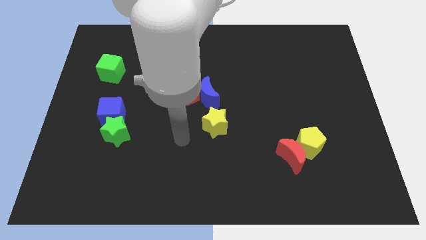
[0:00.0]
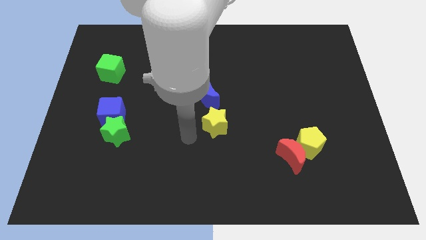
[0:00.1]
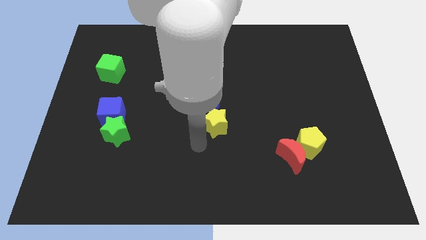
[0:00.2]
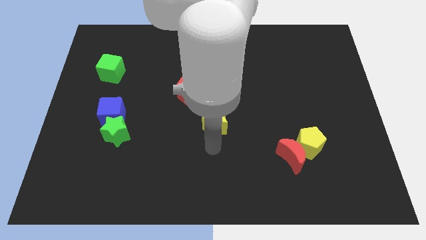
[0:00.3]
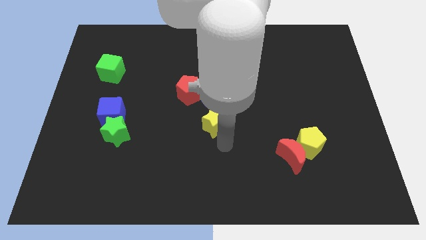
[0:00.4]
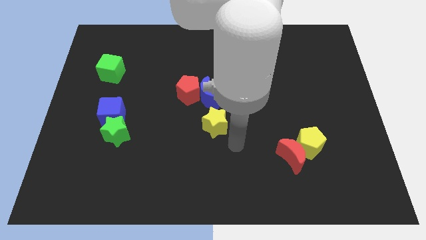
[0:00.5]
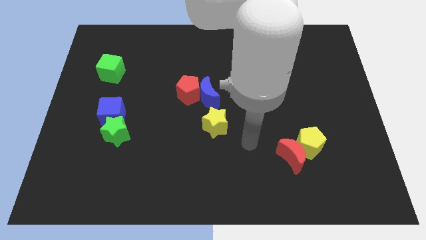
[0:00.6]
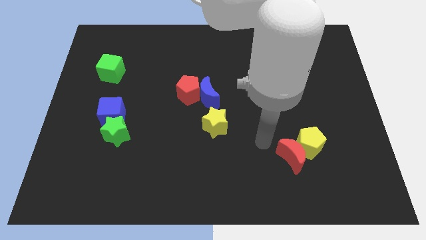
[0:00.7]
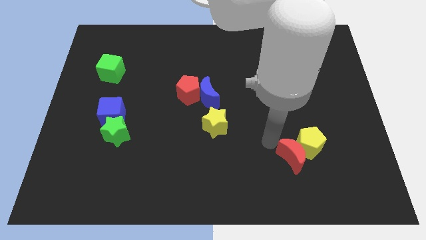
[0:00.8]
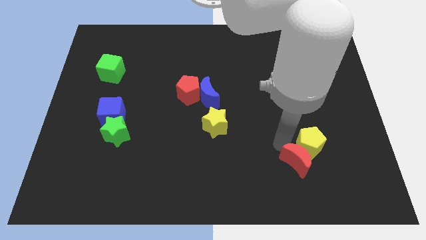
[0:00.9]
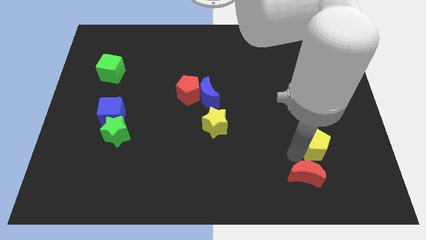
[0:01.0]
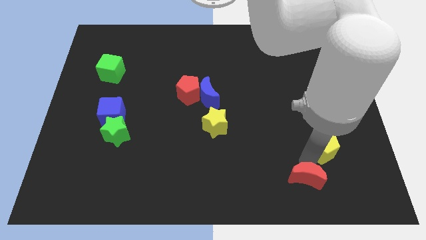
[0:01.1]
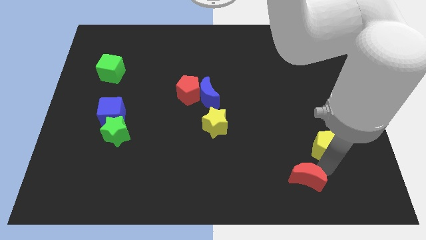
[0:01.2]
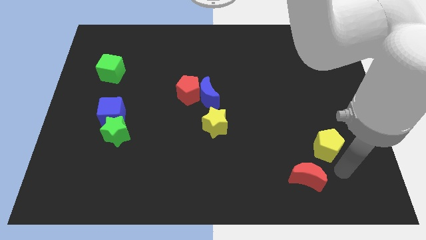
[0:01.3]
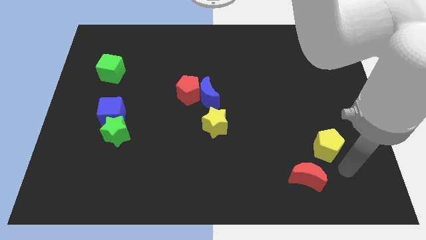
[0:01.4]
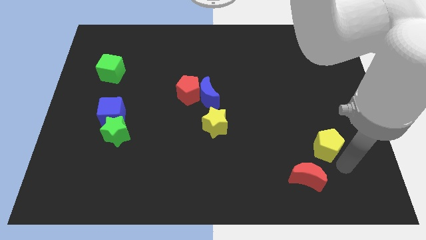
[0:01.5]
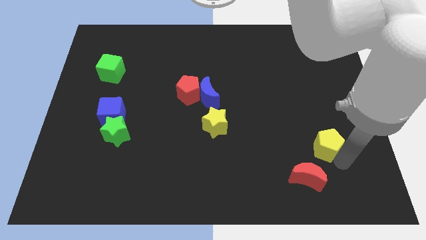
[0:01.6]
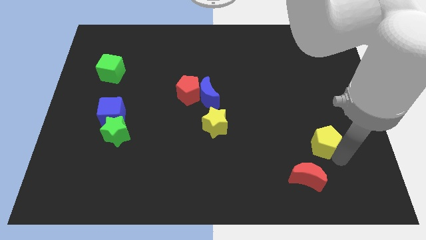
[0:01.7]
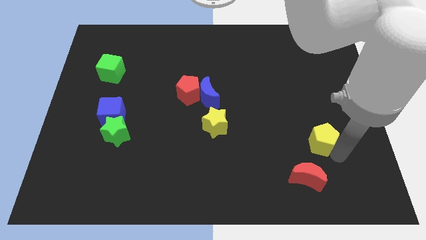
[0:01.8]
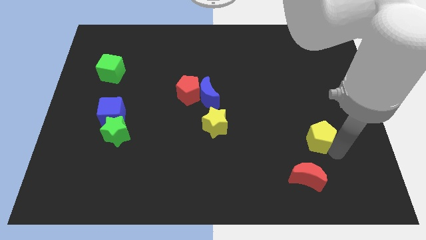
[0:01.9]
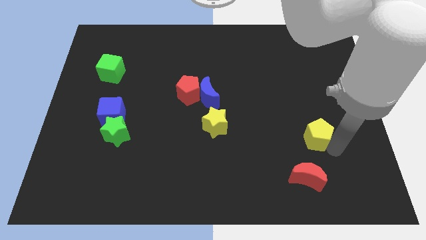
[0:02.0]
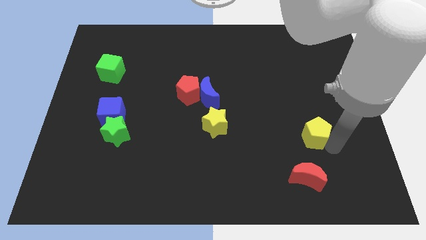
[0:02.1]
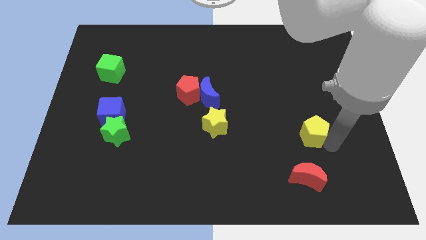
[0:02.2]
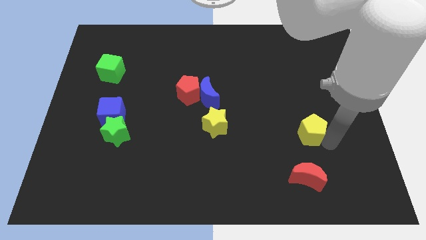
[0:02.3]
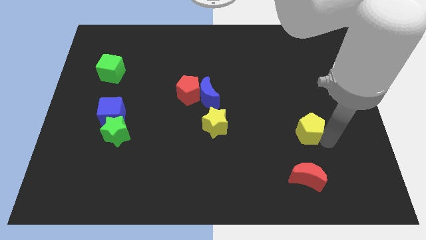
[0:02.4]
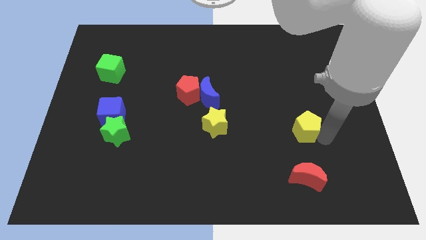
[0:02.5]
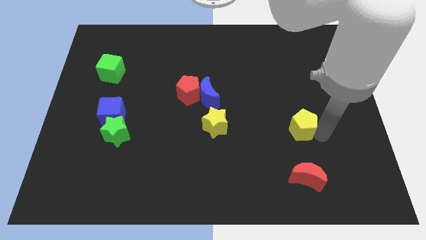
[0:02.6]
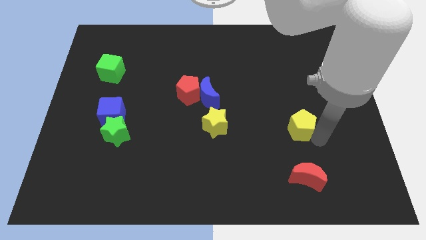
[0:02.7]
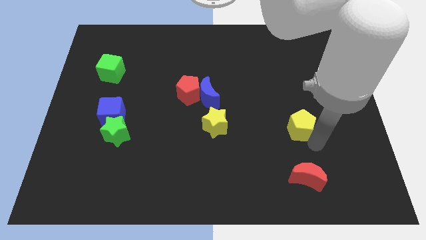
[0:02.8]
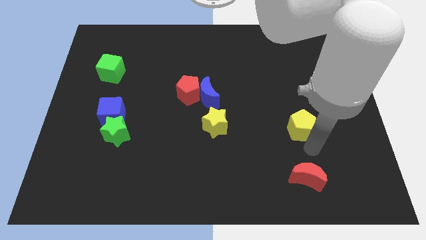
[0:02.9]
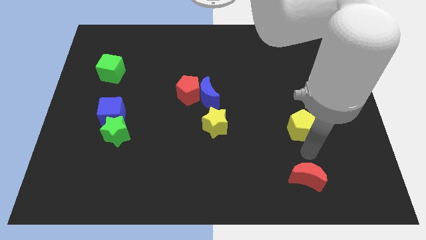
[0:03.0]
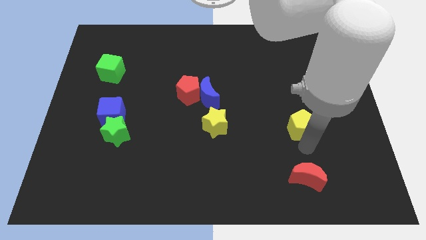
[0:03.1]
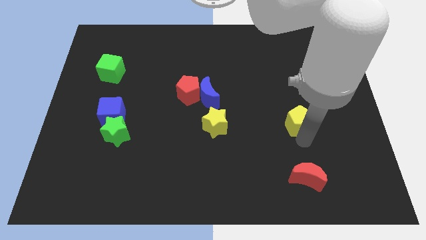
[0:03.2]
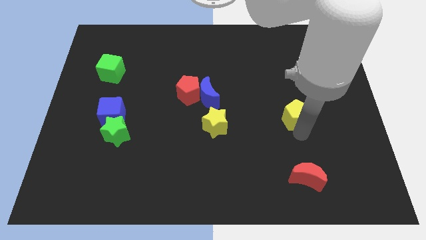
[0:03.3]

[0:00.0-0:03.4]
slightly move the yellow pentagon up

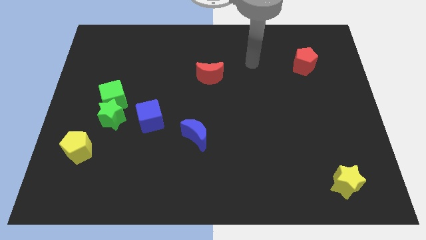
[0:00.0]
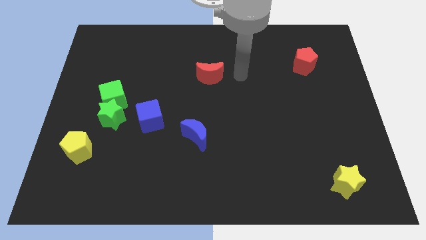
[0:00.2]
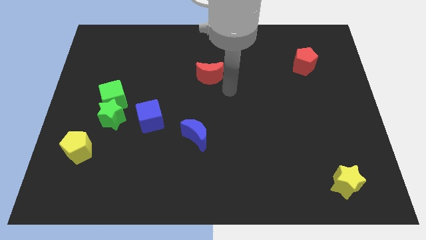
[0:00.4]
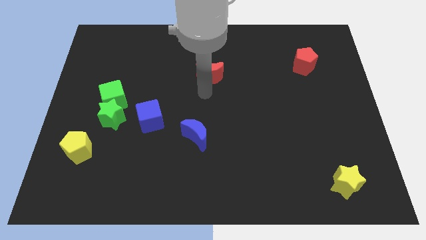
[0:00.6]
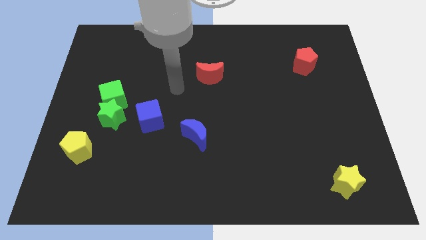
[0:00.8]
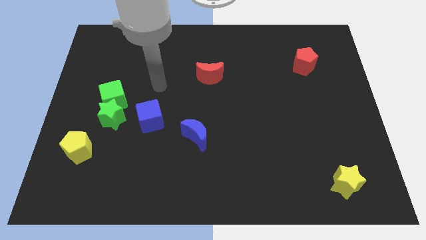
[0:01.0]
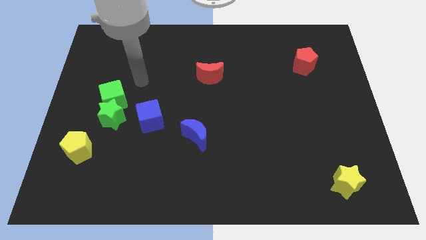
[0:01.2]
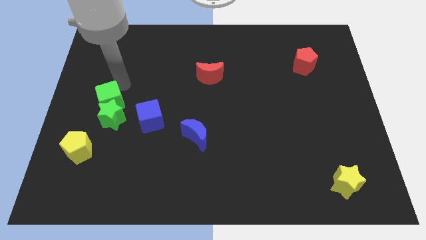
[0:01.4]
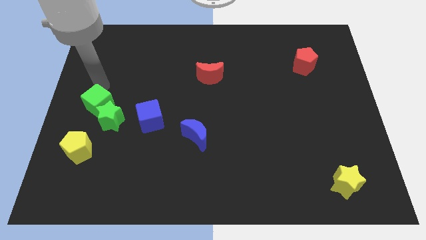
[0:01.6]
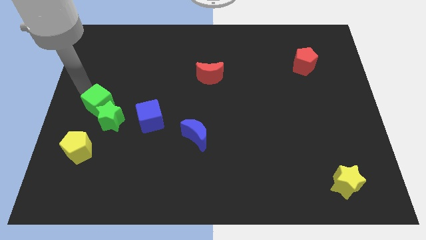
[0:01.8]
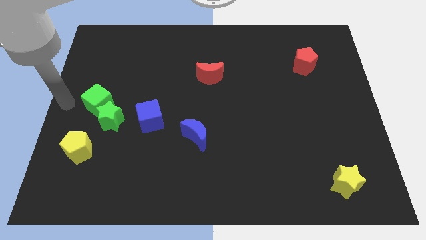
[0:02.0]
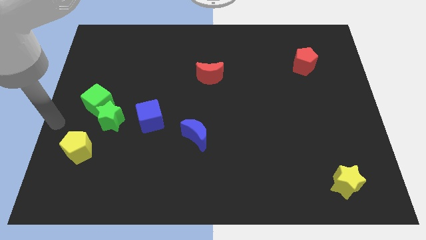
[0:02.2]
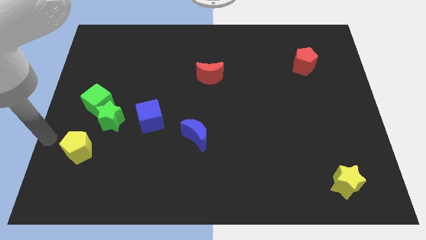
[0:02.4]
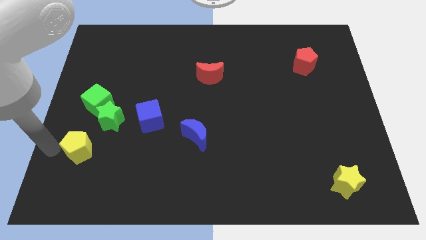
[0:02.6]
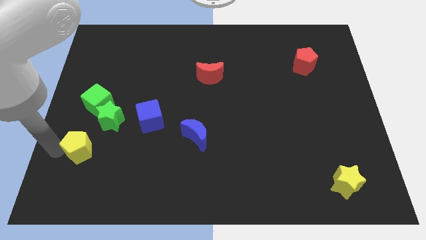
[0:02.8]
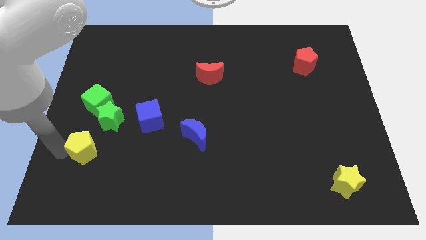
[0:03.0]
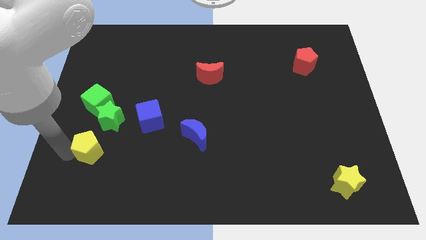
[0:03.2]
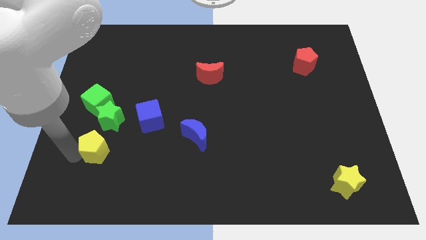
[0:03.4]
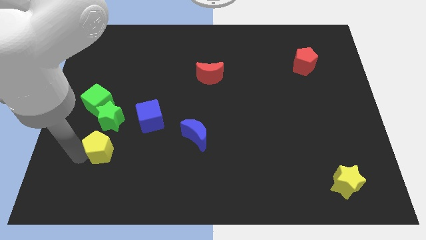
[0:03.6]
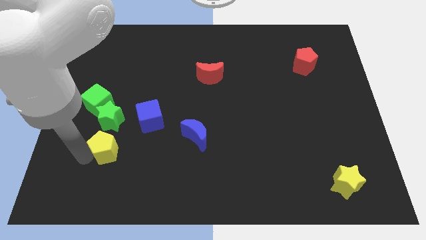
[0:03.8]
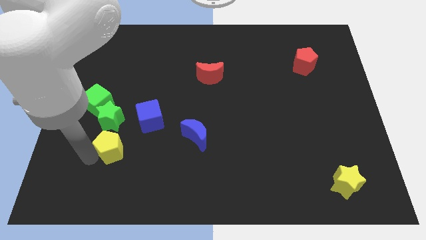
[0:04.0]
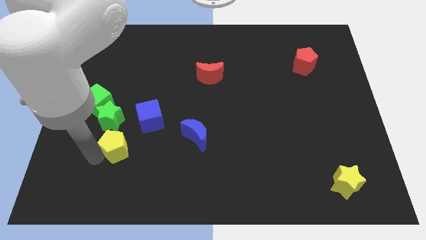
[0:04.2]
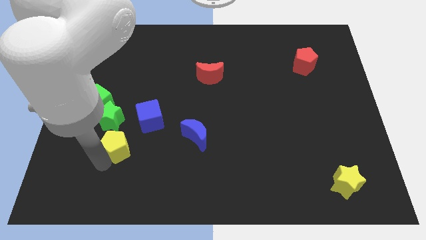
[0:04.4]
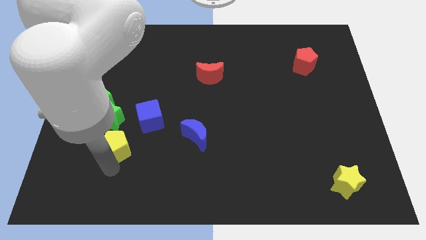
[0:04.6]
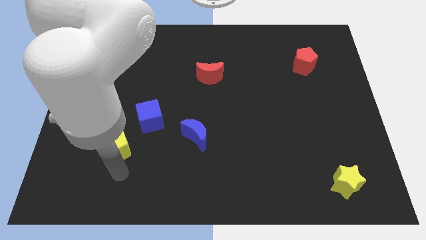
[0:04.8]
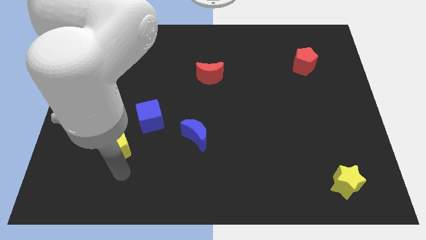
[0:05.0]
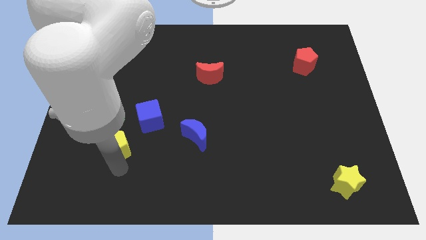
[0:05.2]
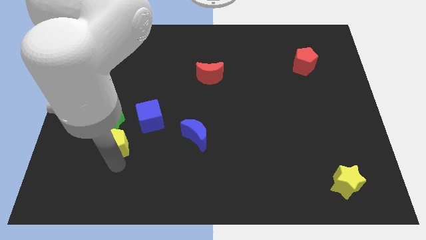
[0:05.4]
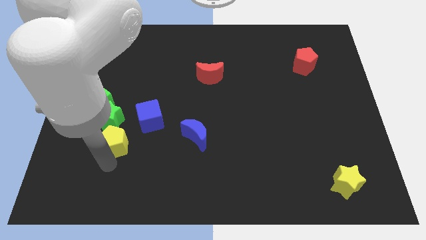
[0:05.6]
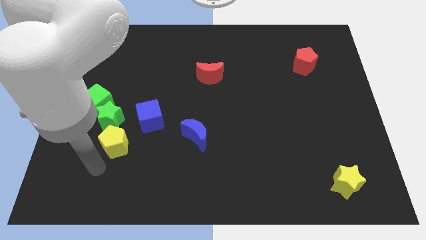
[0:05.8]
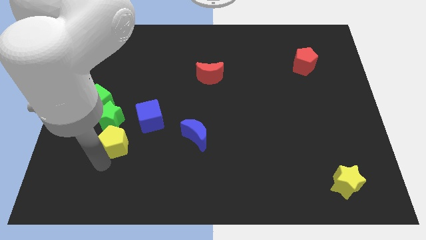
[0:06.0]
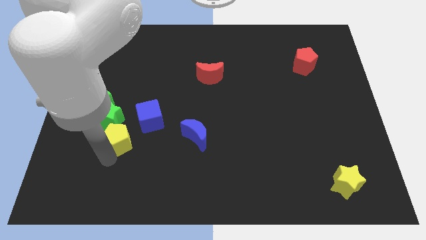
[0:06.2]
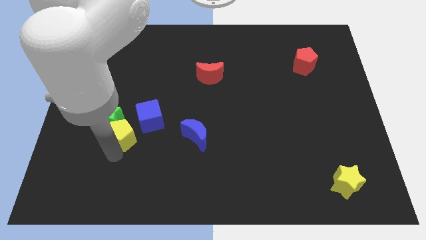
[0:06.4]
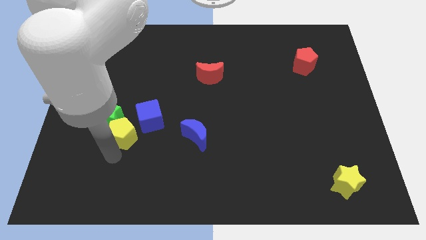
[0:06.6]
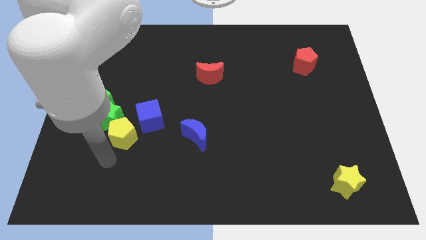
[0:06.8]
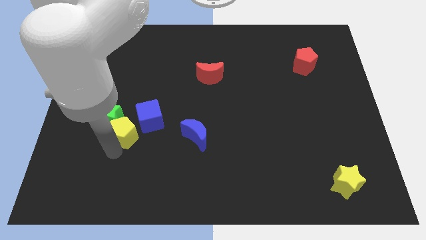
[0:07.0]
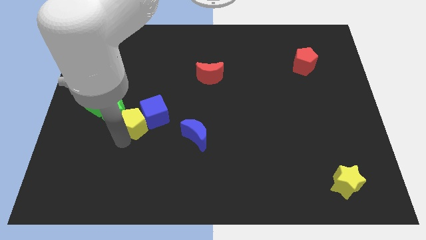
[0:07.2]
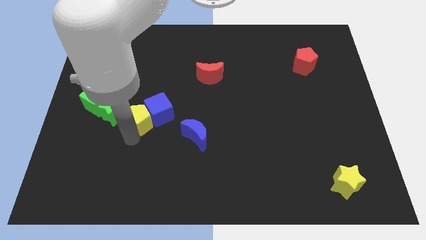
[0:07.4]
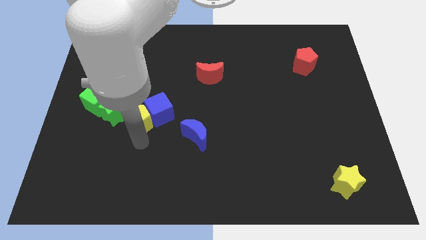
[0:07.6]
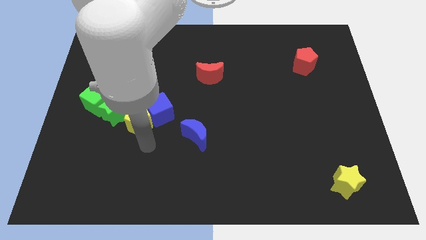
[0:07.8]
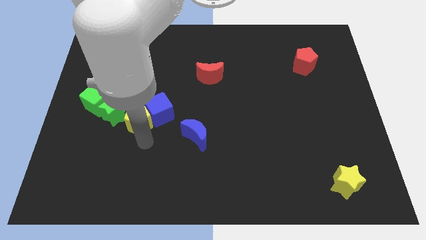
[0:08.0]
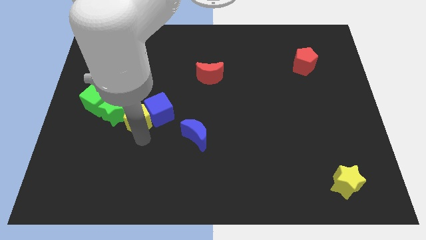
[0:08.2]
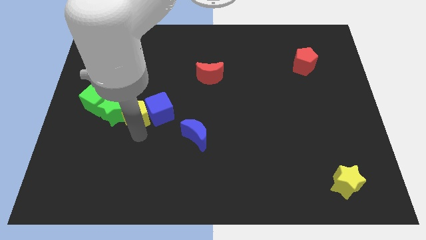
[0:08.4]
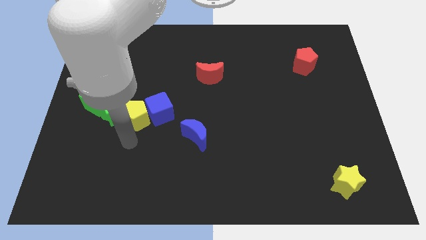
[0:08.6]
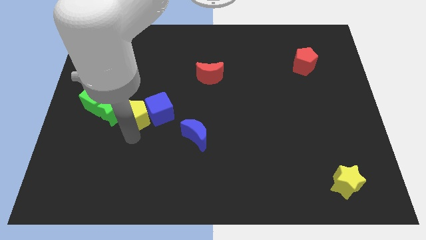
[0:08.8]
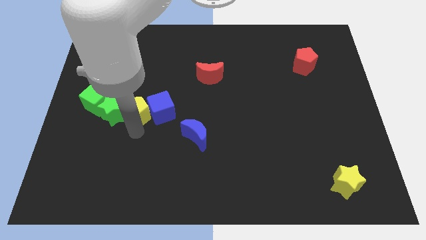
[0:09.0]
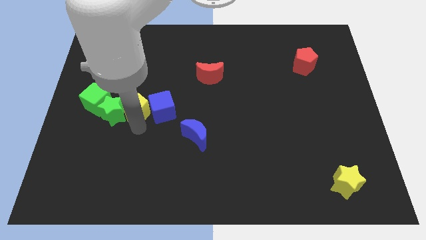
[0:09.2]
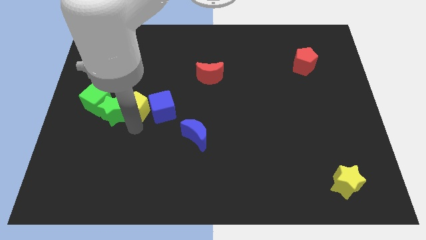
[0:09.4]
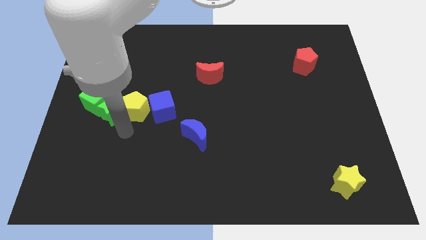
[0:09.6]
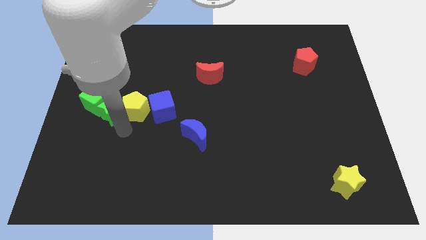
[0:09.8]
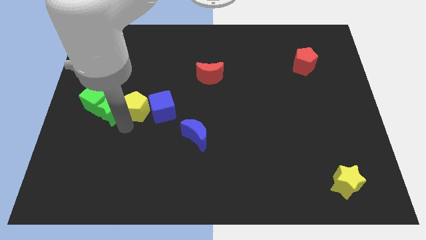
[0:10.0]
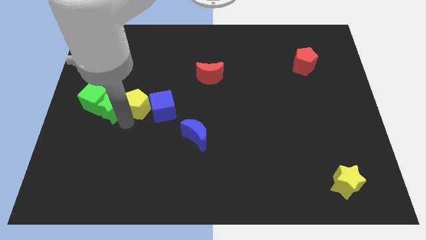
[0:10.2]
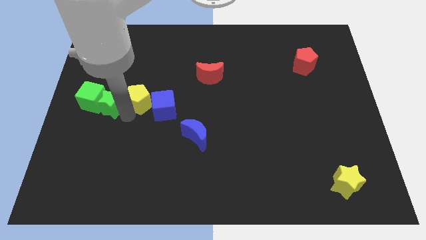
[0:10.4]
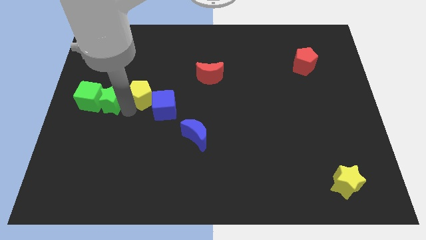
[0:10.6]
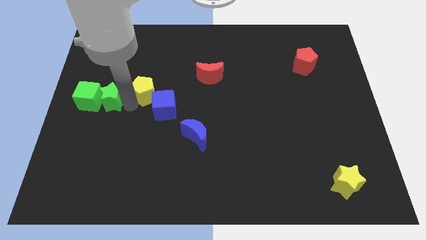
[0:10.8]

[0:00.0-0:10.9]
slide the yellow pentagon up and then to the right
